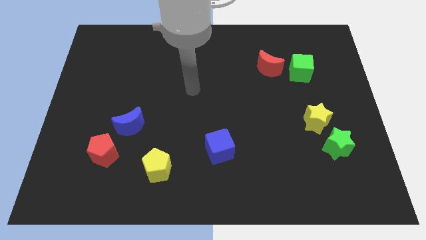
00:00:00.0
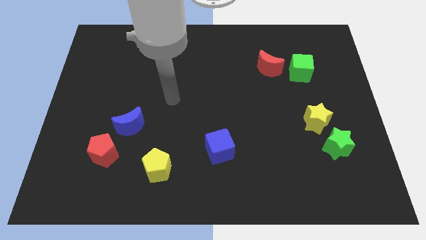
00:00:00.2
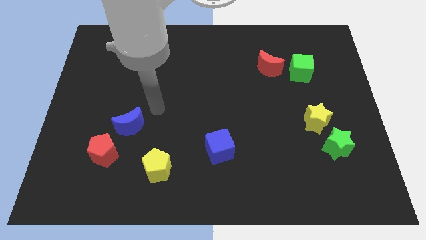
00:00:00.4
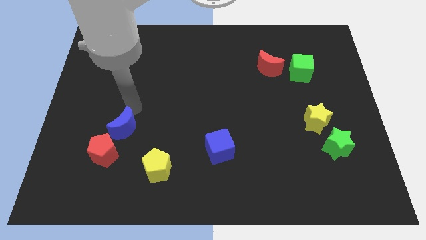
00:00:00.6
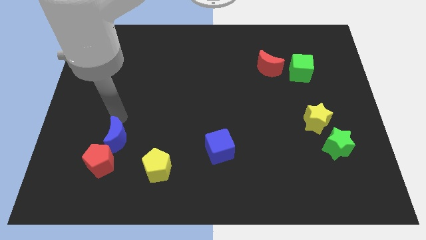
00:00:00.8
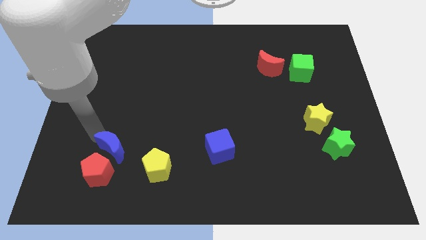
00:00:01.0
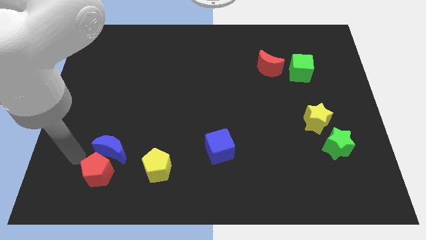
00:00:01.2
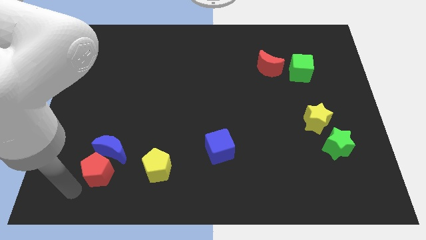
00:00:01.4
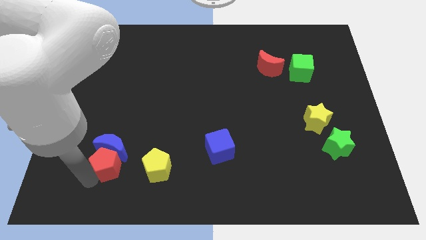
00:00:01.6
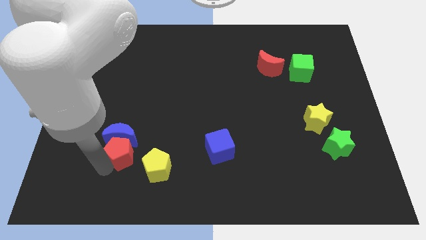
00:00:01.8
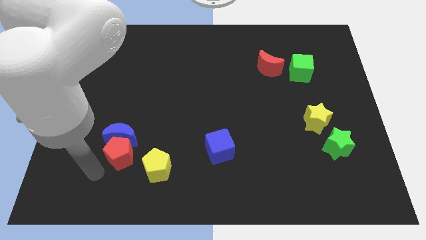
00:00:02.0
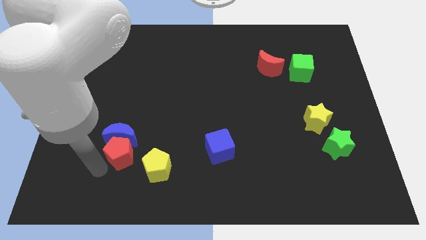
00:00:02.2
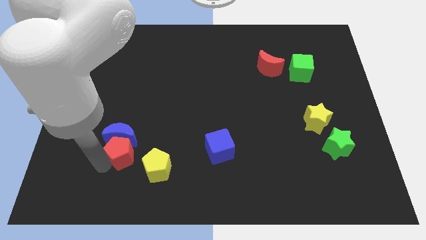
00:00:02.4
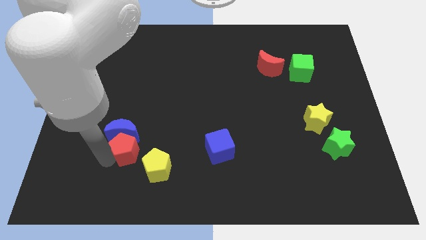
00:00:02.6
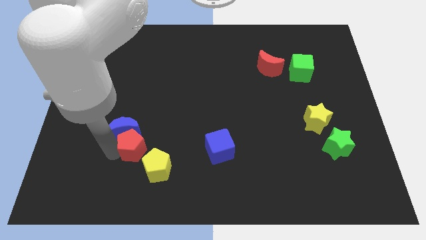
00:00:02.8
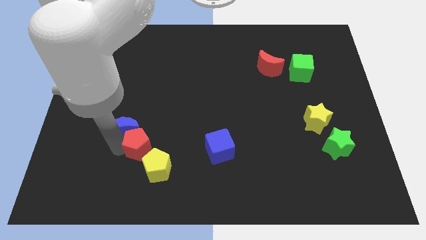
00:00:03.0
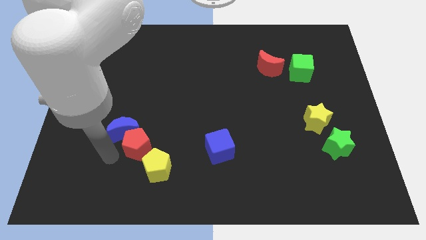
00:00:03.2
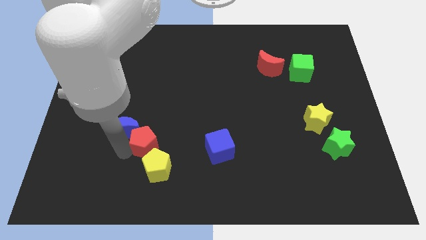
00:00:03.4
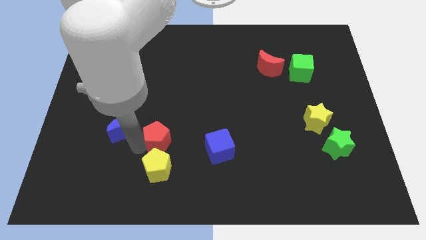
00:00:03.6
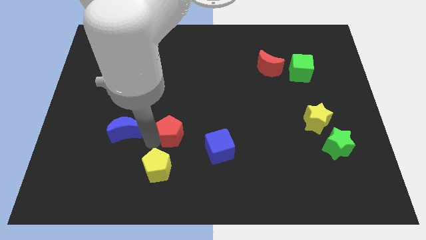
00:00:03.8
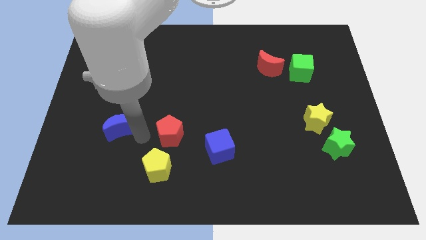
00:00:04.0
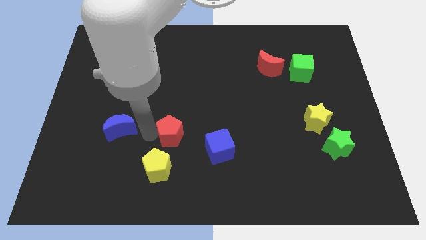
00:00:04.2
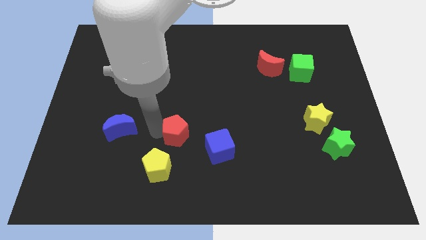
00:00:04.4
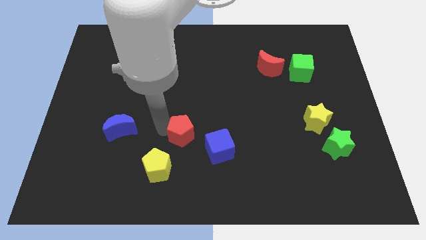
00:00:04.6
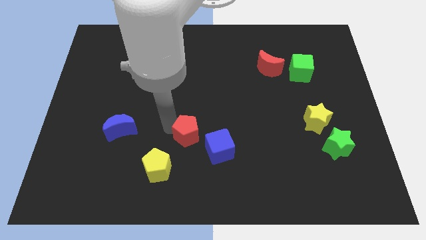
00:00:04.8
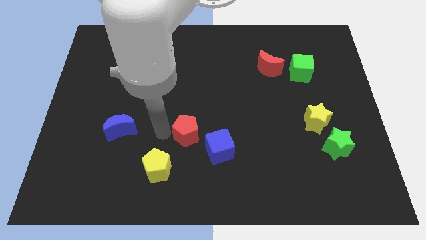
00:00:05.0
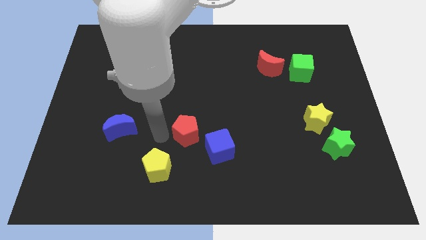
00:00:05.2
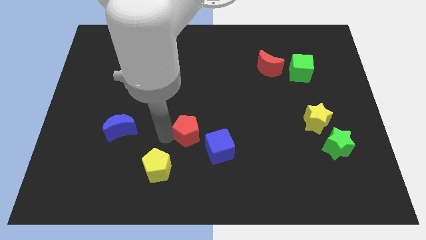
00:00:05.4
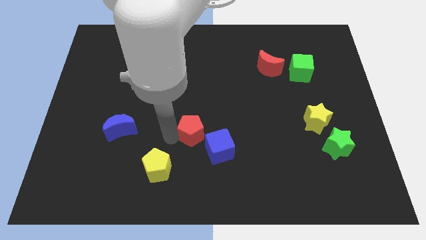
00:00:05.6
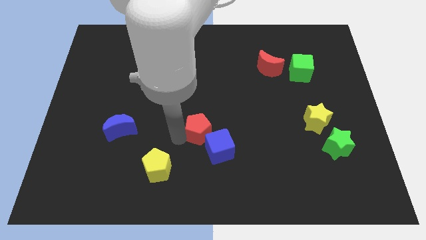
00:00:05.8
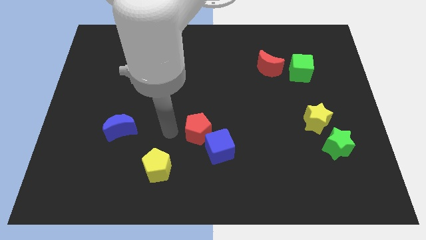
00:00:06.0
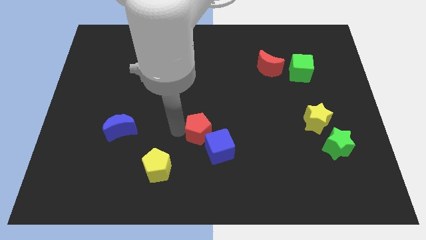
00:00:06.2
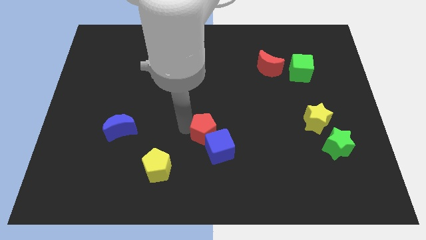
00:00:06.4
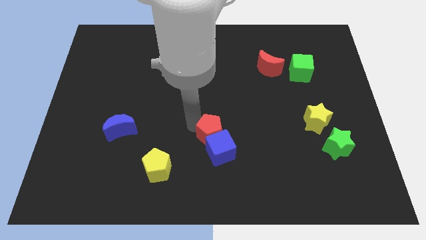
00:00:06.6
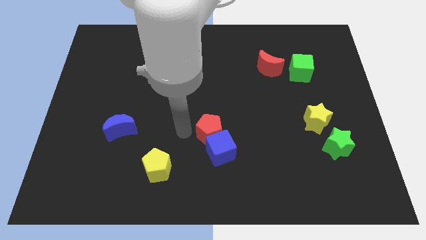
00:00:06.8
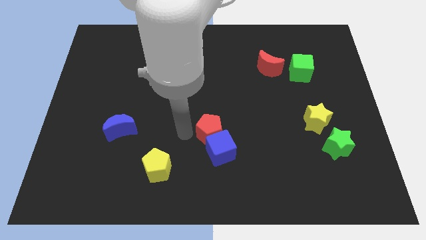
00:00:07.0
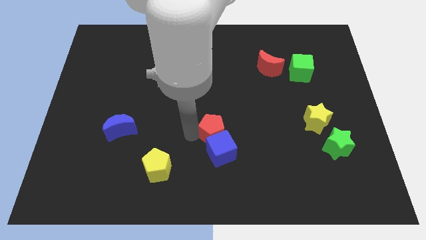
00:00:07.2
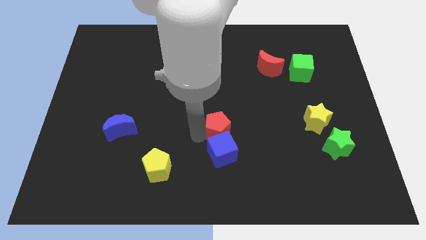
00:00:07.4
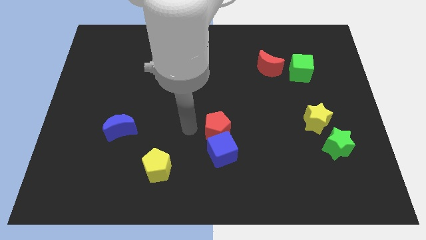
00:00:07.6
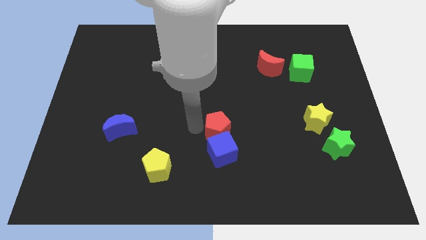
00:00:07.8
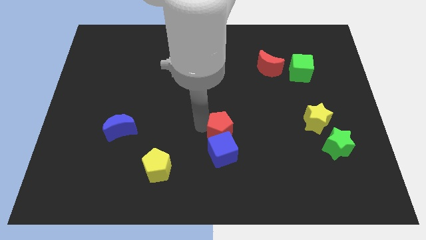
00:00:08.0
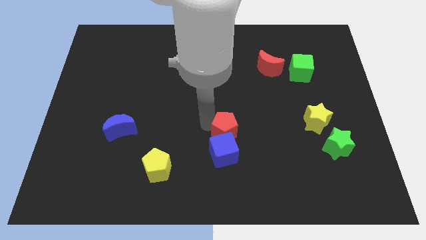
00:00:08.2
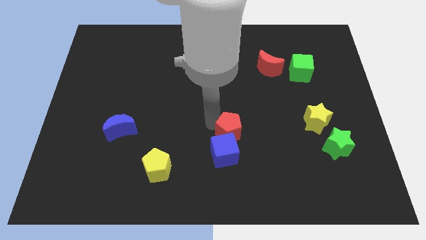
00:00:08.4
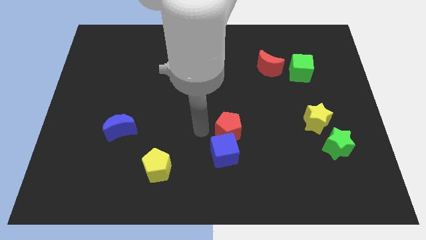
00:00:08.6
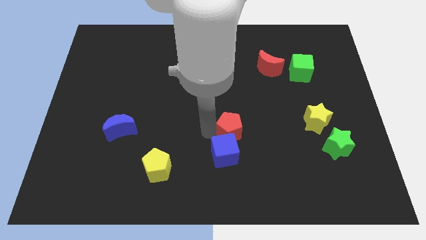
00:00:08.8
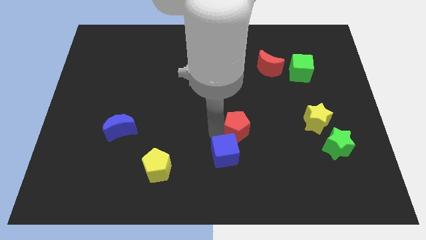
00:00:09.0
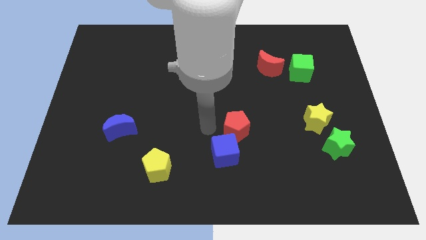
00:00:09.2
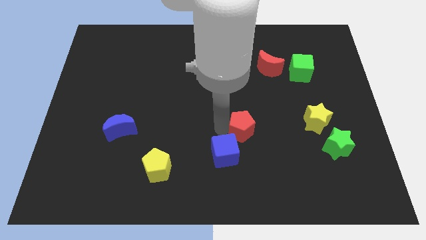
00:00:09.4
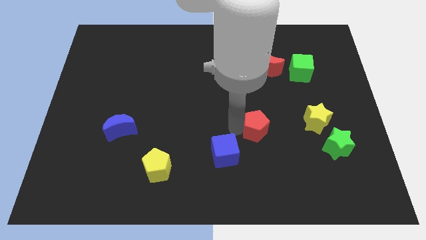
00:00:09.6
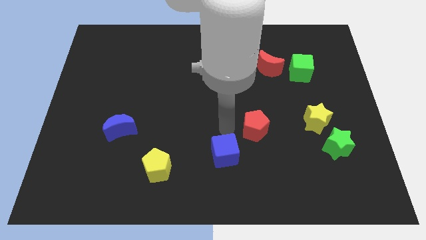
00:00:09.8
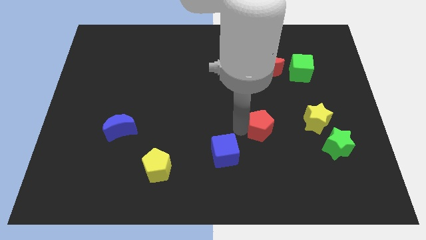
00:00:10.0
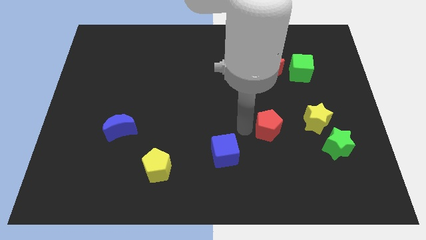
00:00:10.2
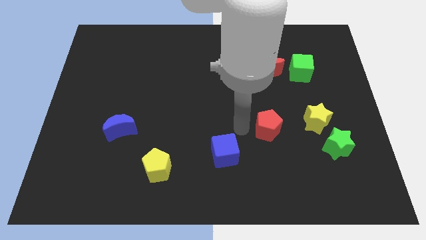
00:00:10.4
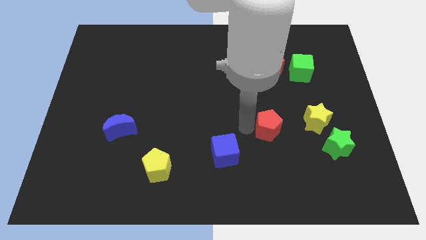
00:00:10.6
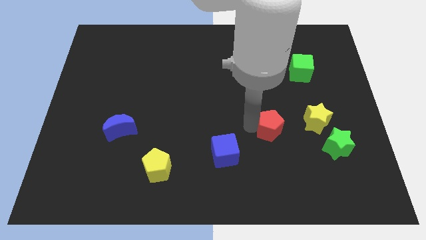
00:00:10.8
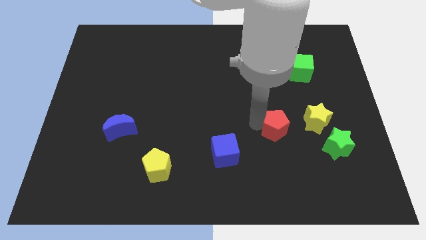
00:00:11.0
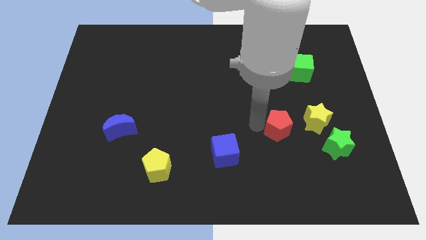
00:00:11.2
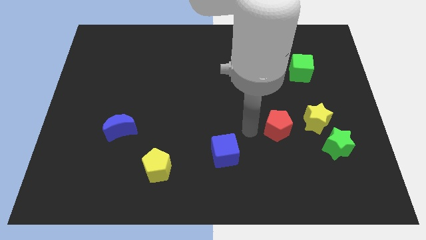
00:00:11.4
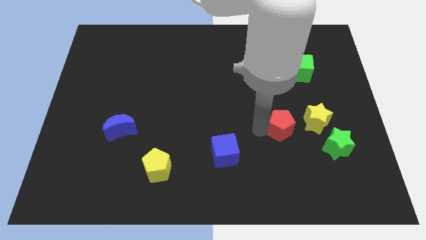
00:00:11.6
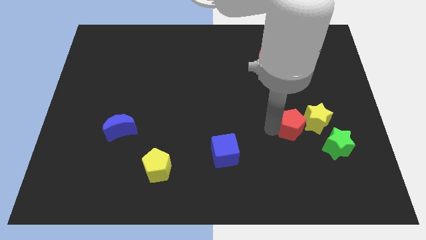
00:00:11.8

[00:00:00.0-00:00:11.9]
move the red pentagon next to the yellow star

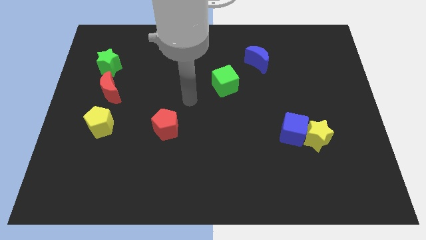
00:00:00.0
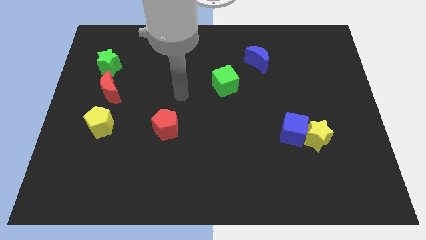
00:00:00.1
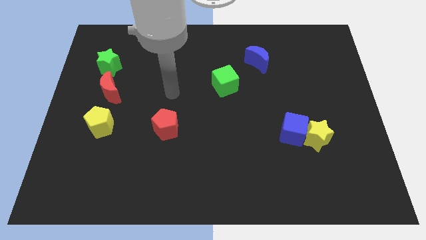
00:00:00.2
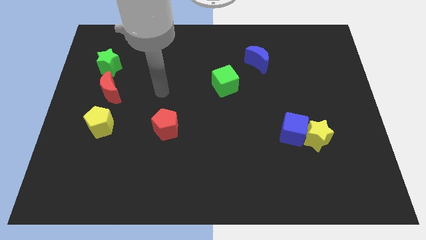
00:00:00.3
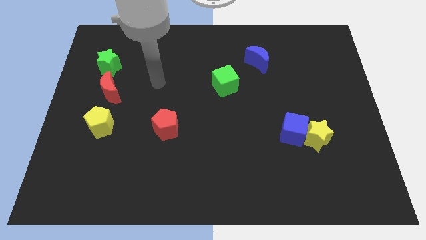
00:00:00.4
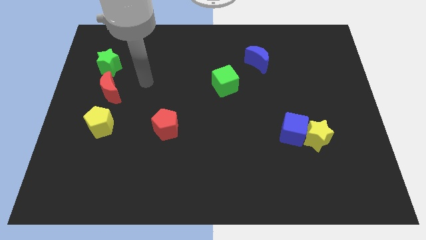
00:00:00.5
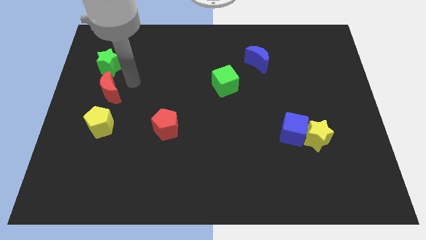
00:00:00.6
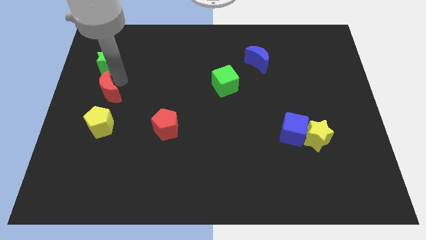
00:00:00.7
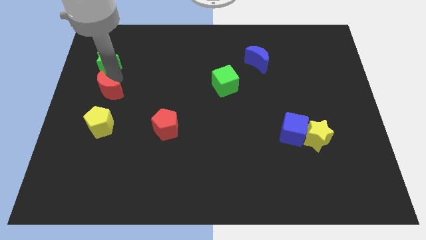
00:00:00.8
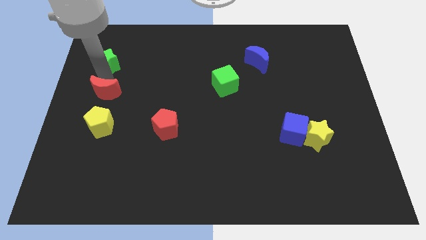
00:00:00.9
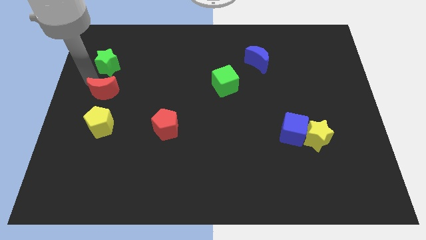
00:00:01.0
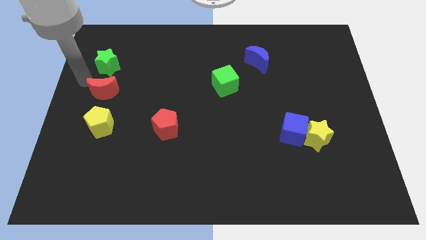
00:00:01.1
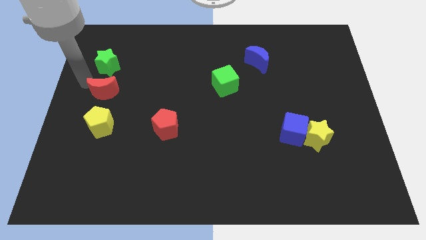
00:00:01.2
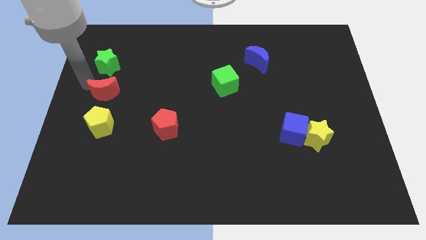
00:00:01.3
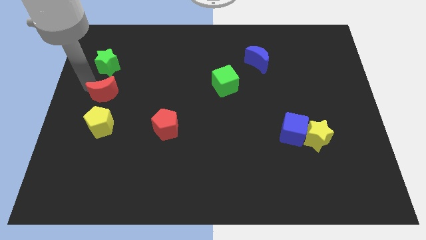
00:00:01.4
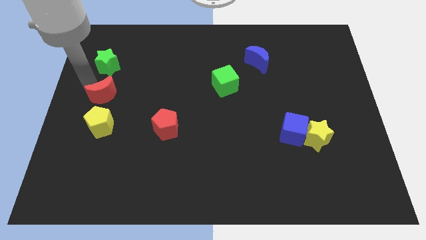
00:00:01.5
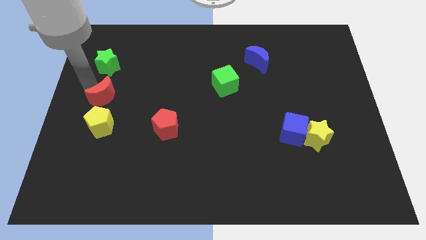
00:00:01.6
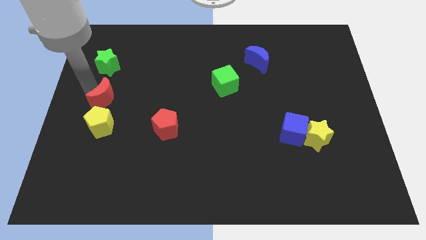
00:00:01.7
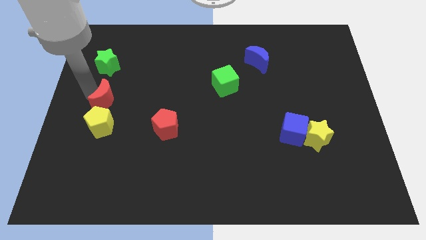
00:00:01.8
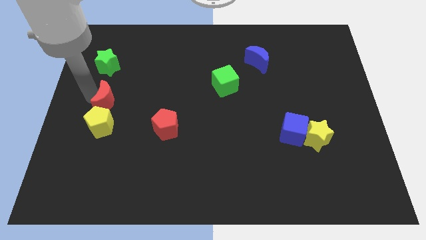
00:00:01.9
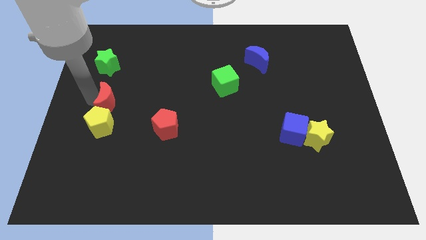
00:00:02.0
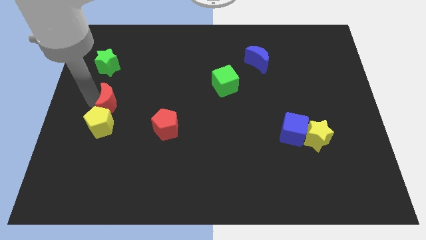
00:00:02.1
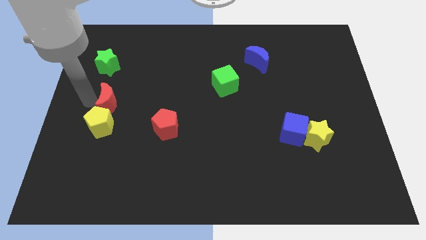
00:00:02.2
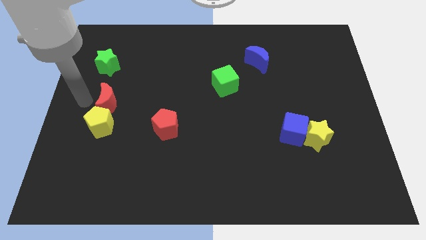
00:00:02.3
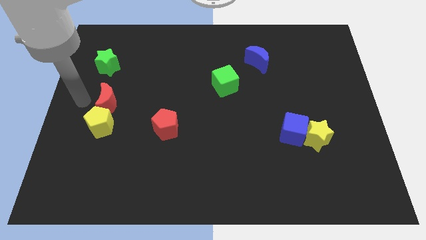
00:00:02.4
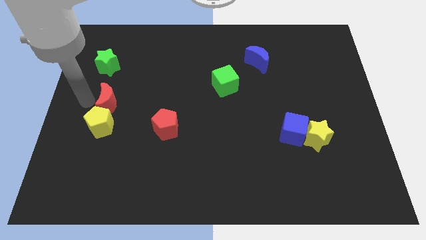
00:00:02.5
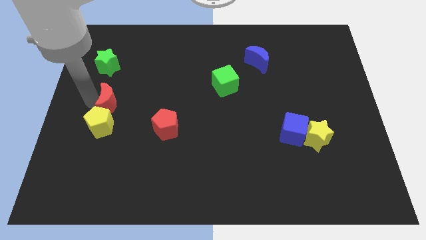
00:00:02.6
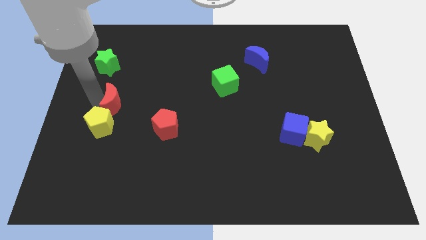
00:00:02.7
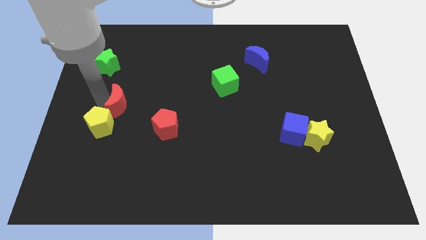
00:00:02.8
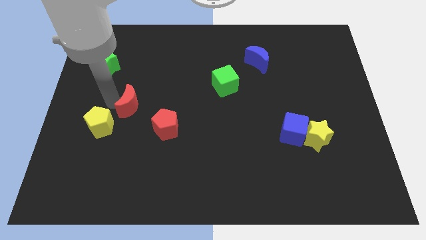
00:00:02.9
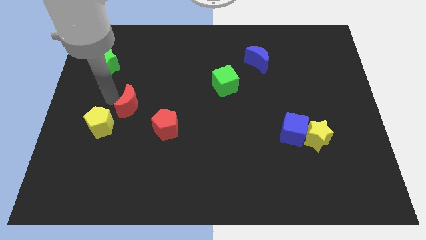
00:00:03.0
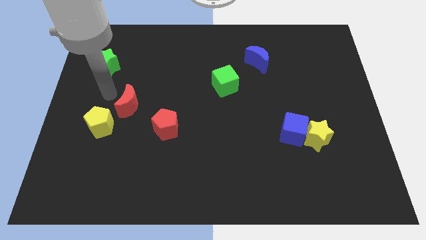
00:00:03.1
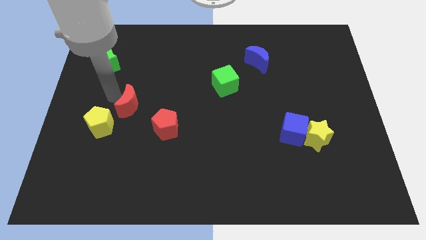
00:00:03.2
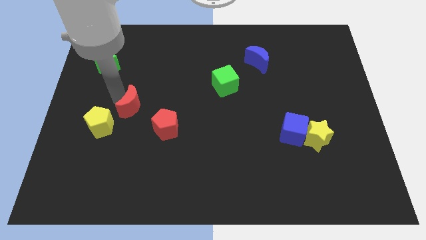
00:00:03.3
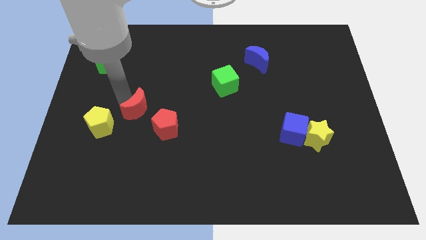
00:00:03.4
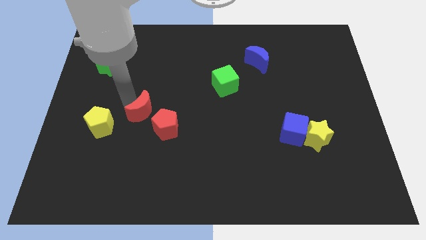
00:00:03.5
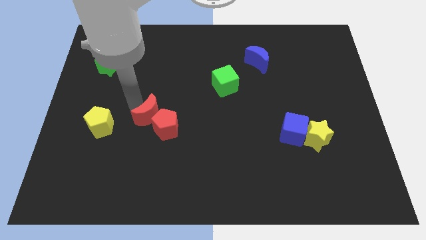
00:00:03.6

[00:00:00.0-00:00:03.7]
put the red moon towards the red pentagon
